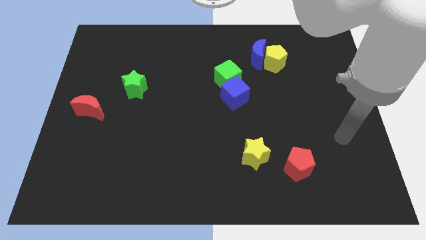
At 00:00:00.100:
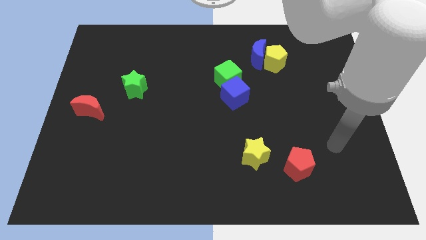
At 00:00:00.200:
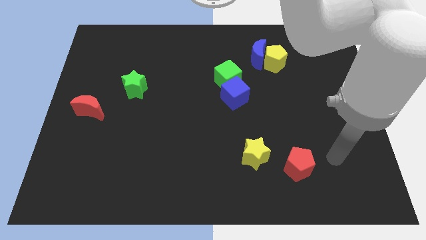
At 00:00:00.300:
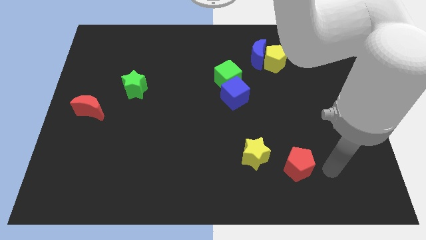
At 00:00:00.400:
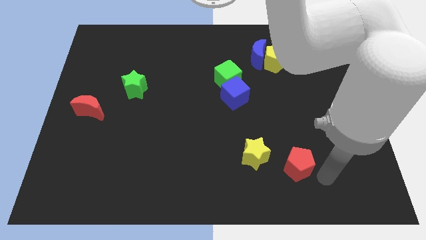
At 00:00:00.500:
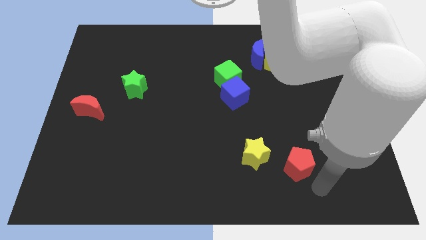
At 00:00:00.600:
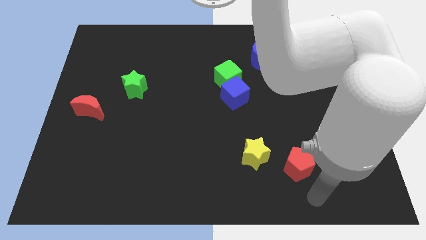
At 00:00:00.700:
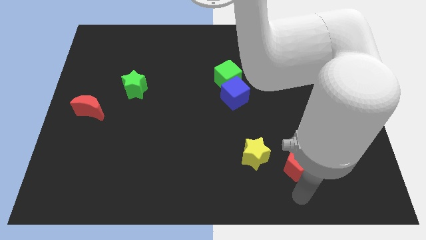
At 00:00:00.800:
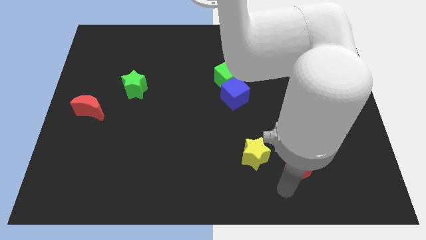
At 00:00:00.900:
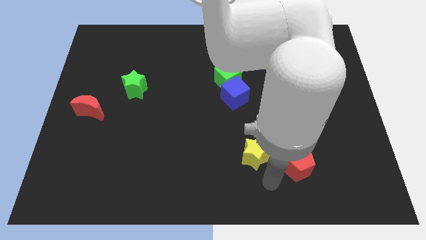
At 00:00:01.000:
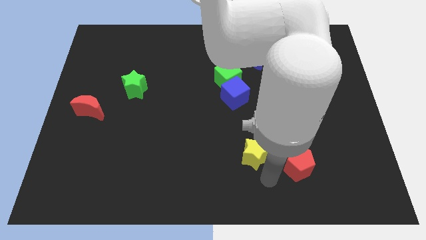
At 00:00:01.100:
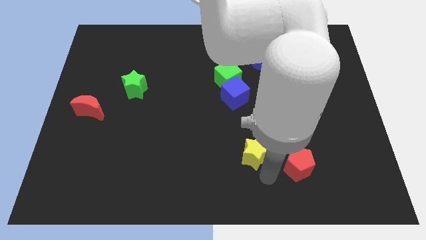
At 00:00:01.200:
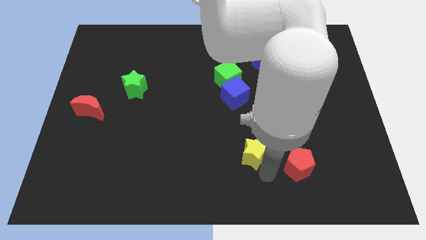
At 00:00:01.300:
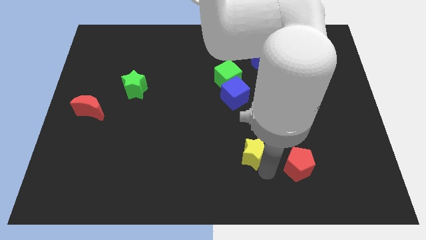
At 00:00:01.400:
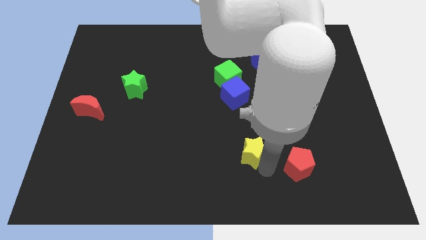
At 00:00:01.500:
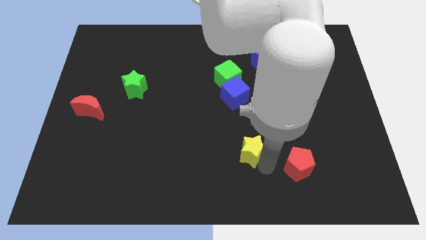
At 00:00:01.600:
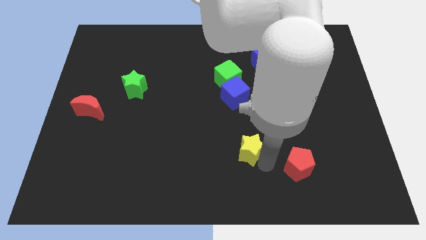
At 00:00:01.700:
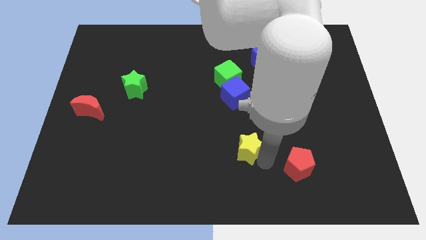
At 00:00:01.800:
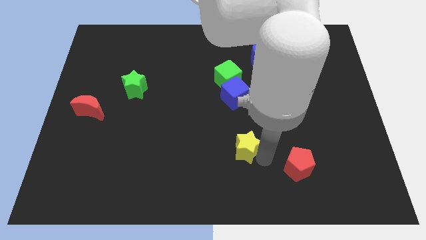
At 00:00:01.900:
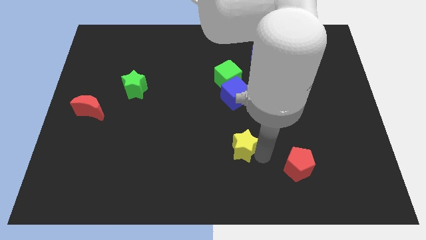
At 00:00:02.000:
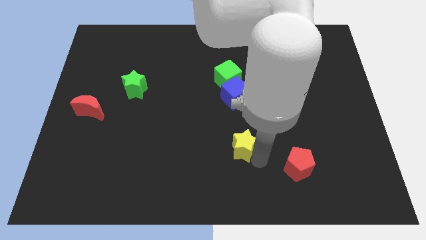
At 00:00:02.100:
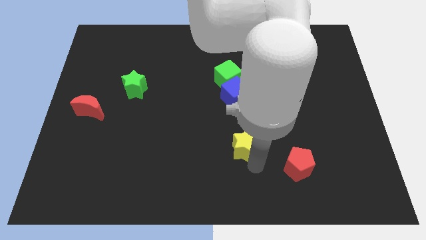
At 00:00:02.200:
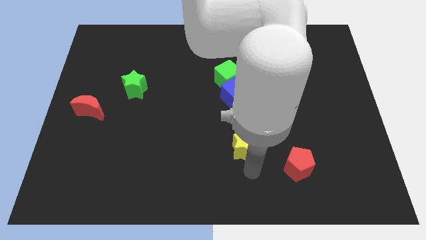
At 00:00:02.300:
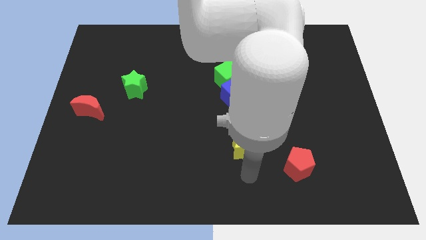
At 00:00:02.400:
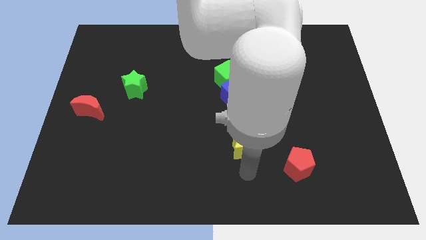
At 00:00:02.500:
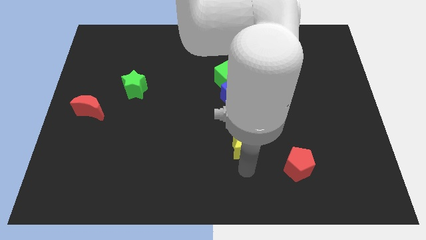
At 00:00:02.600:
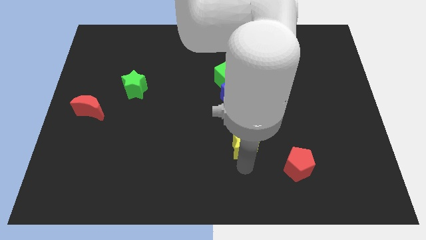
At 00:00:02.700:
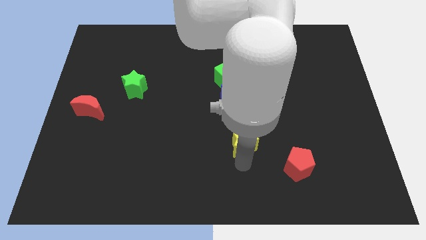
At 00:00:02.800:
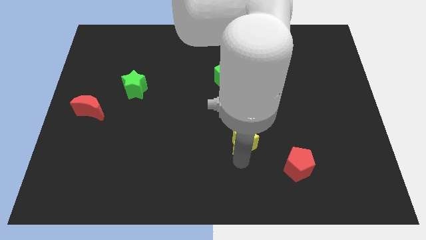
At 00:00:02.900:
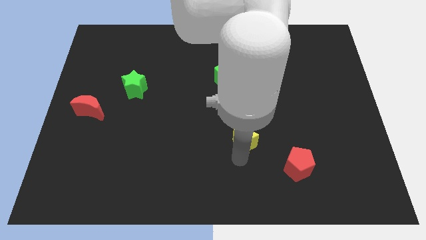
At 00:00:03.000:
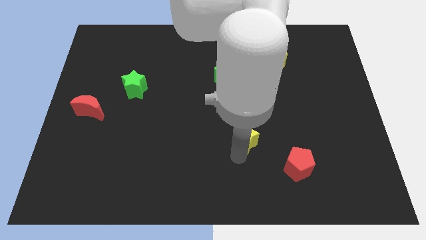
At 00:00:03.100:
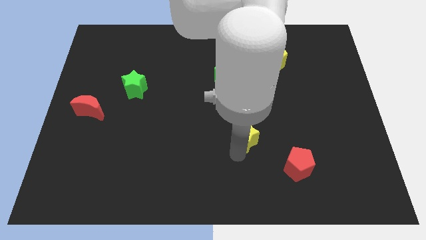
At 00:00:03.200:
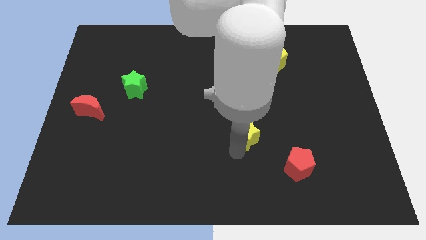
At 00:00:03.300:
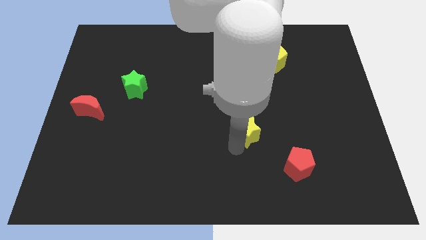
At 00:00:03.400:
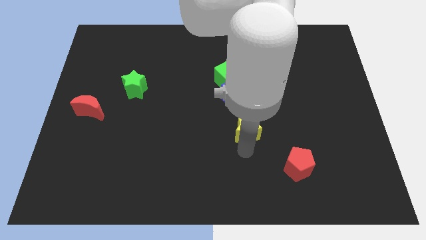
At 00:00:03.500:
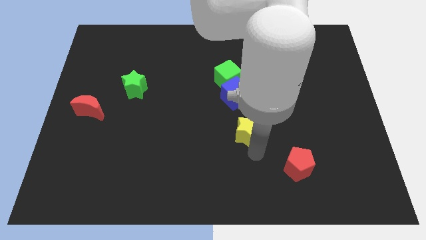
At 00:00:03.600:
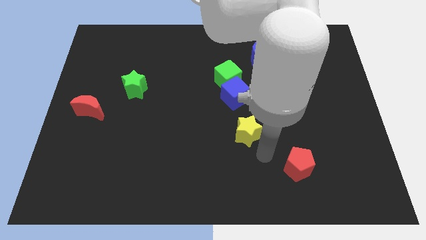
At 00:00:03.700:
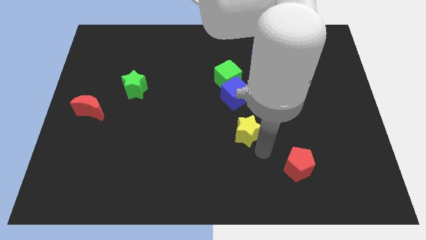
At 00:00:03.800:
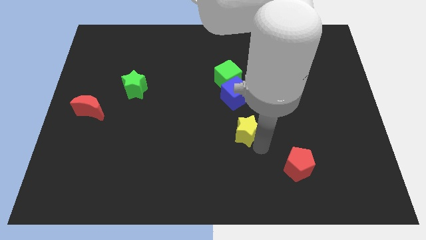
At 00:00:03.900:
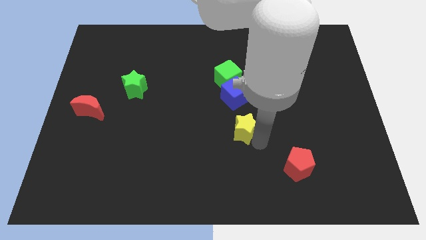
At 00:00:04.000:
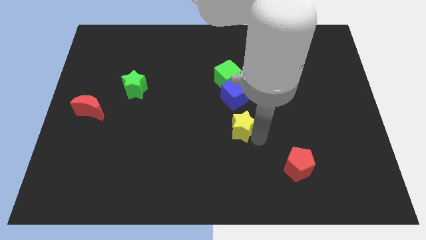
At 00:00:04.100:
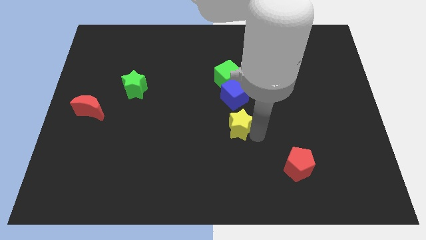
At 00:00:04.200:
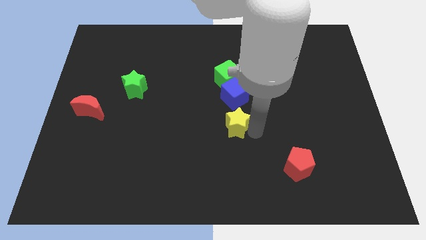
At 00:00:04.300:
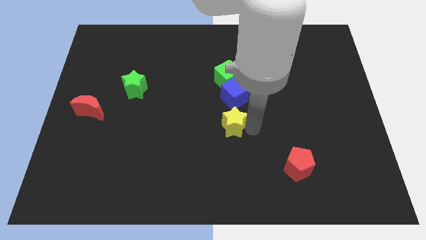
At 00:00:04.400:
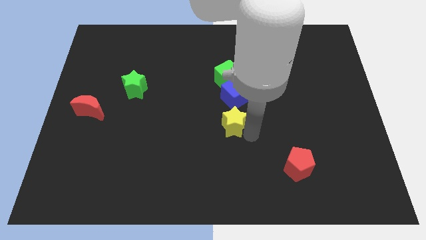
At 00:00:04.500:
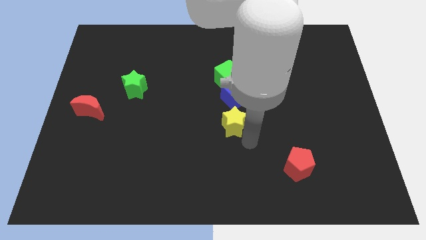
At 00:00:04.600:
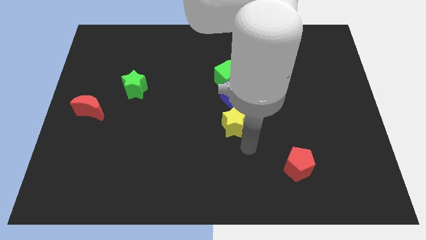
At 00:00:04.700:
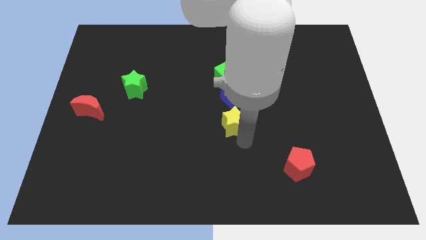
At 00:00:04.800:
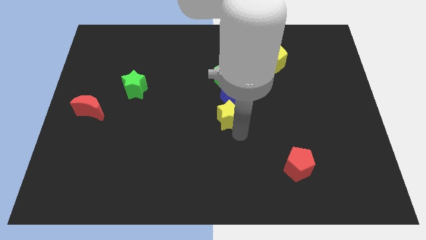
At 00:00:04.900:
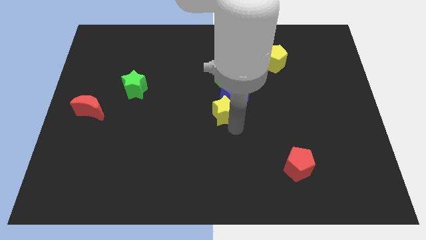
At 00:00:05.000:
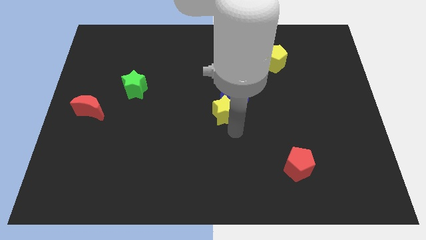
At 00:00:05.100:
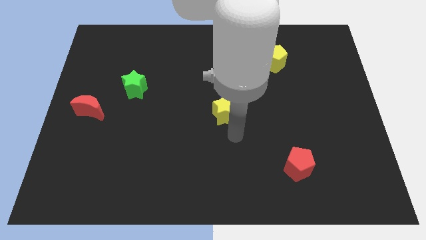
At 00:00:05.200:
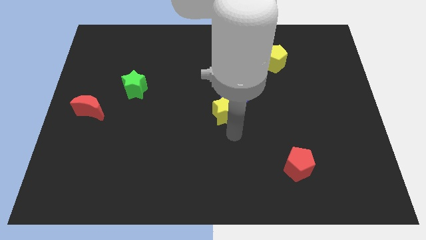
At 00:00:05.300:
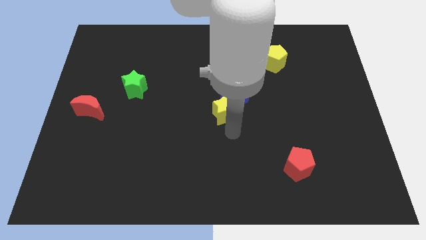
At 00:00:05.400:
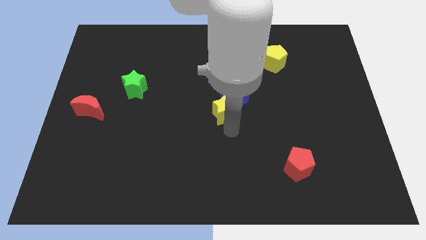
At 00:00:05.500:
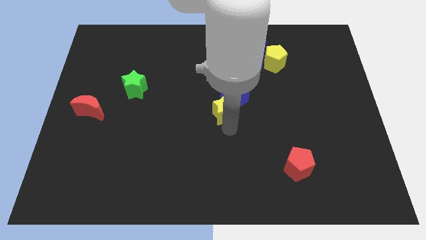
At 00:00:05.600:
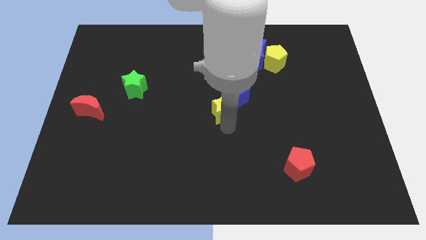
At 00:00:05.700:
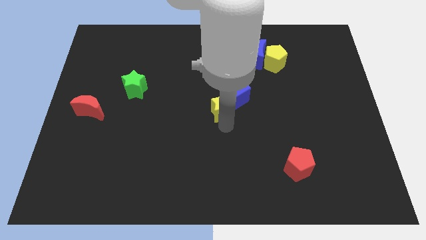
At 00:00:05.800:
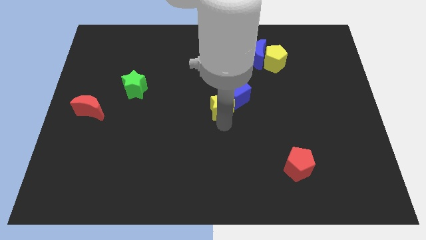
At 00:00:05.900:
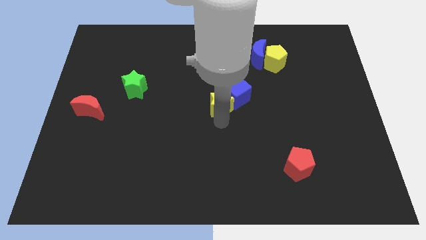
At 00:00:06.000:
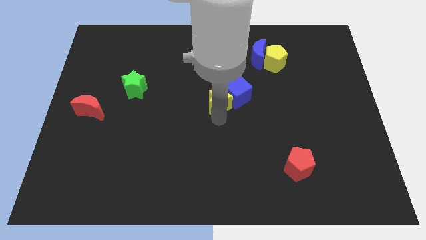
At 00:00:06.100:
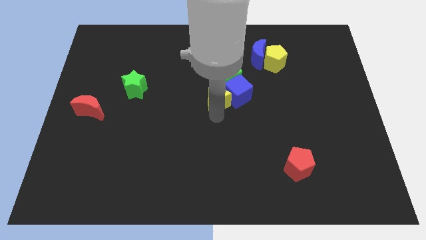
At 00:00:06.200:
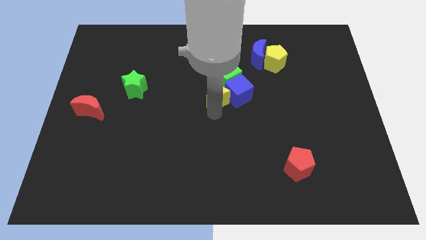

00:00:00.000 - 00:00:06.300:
slide the yellow star diagonally up and to the left of the blue cube

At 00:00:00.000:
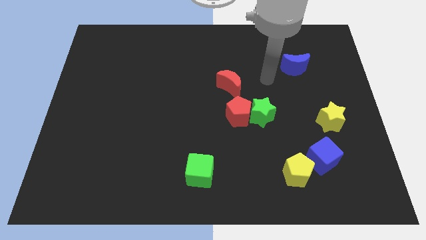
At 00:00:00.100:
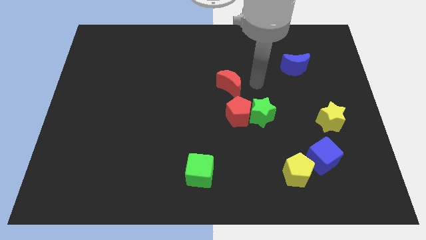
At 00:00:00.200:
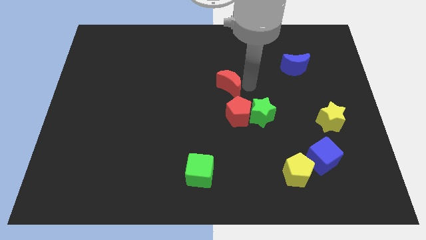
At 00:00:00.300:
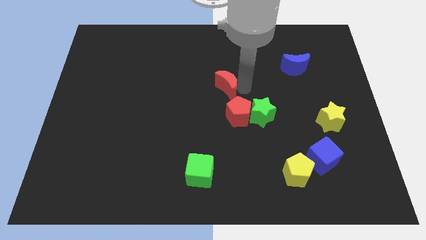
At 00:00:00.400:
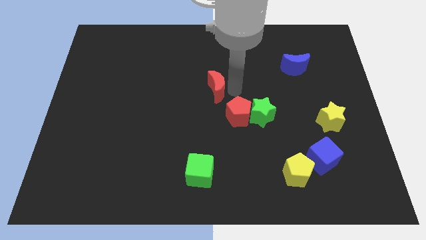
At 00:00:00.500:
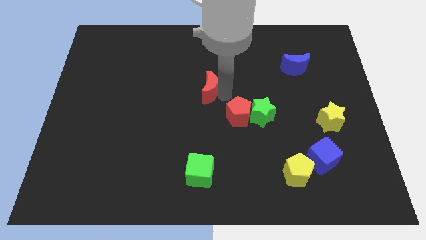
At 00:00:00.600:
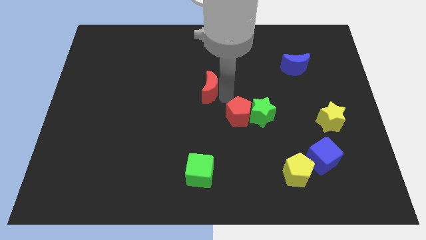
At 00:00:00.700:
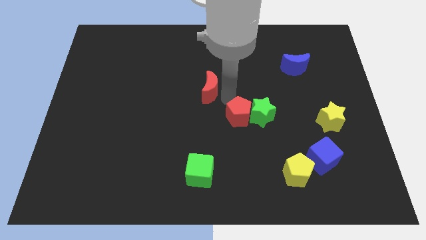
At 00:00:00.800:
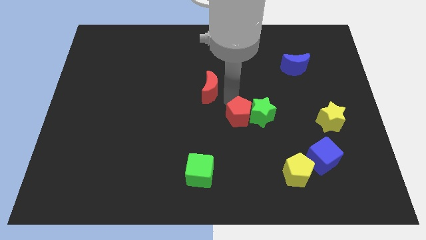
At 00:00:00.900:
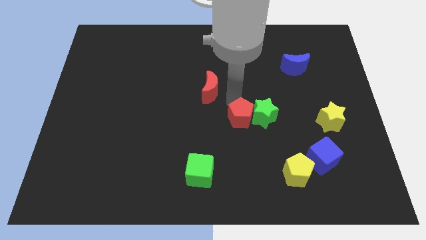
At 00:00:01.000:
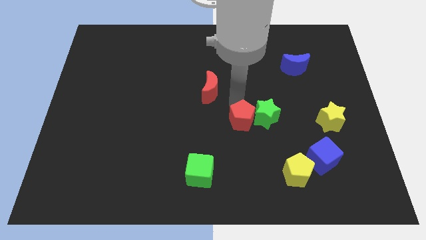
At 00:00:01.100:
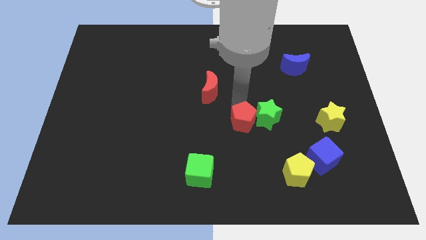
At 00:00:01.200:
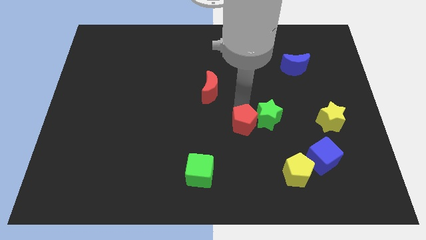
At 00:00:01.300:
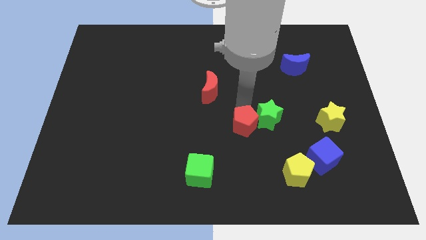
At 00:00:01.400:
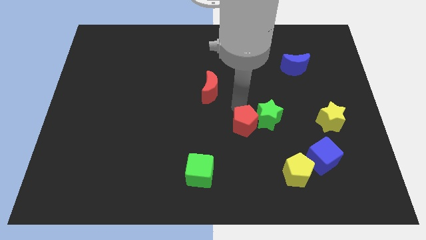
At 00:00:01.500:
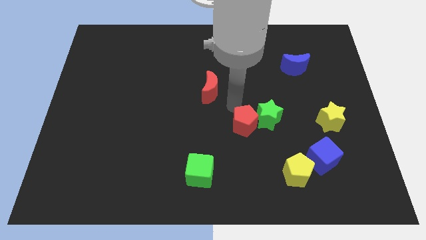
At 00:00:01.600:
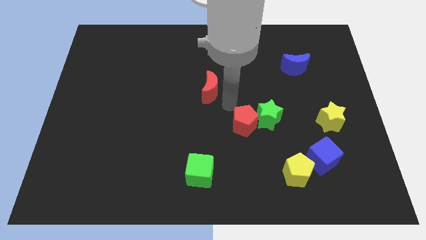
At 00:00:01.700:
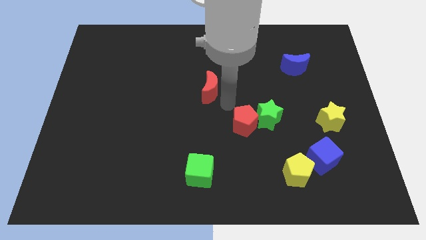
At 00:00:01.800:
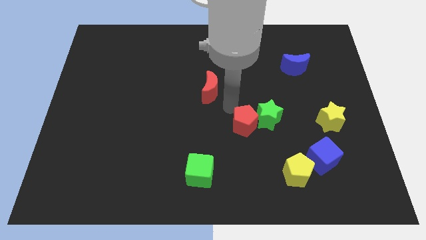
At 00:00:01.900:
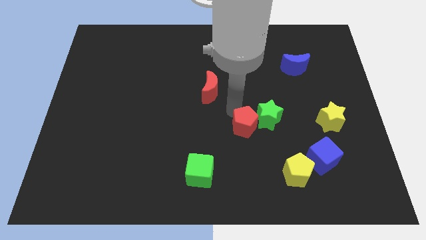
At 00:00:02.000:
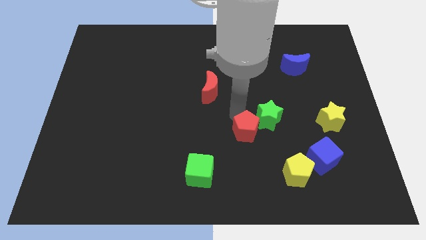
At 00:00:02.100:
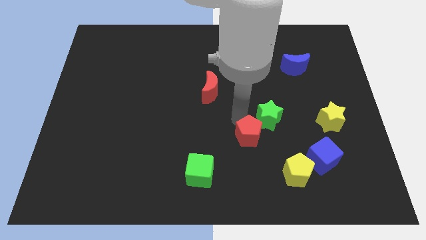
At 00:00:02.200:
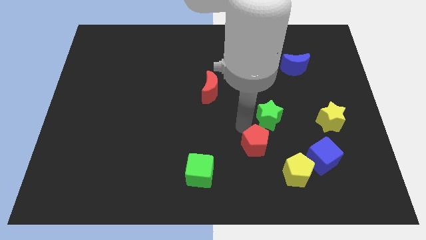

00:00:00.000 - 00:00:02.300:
put the red pentagon left of the blue cube
